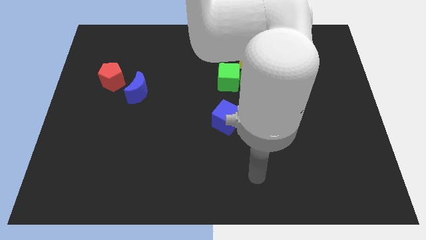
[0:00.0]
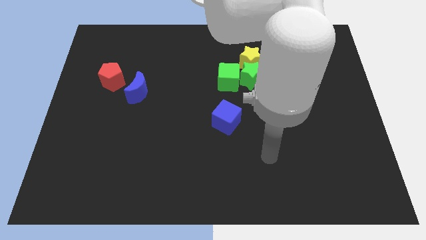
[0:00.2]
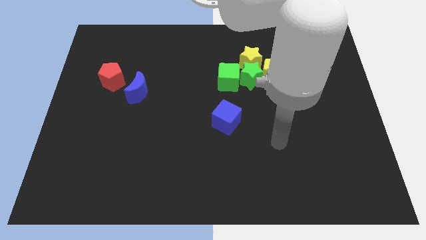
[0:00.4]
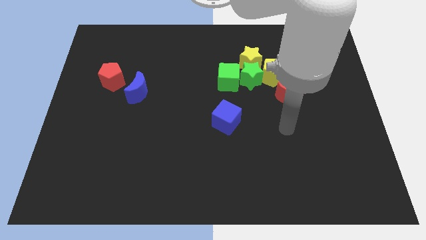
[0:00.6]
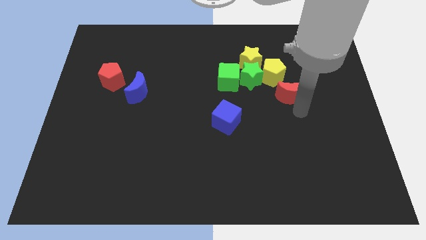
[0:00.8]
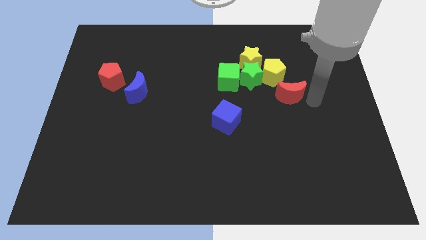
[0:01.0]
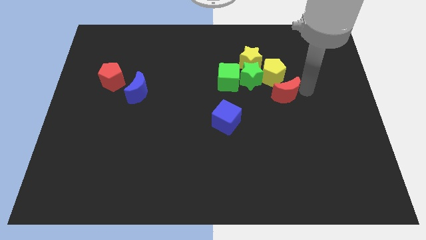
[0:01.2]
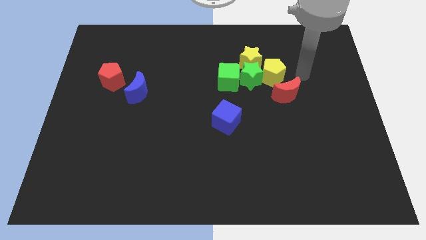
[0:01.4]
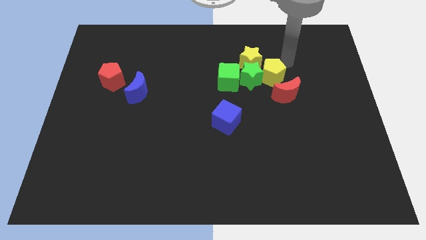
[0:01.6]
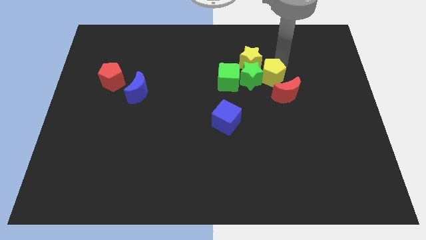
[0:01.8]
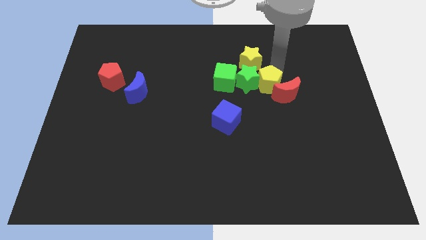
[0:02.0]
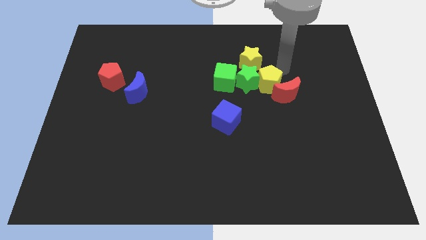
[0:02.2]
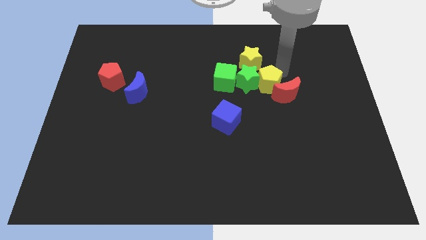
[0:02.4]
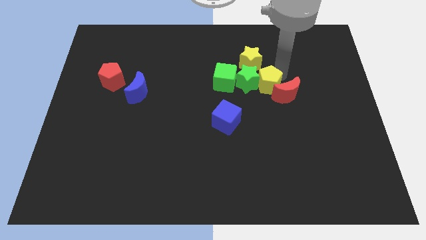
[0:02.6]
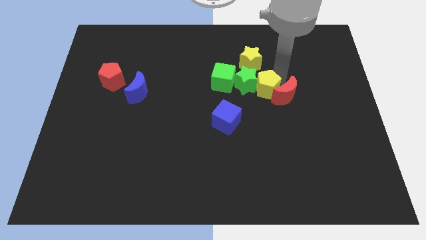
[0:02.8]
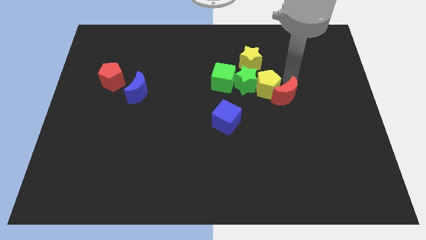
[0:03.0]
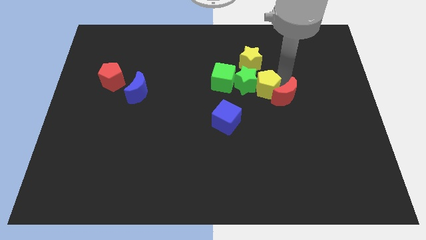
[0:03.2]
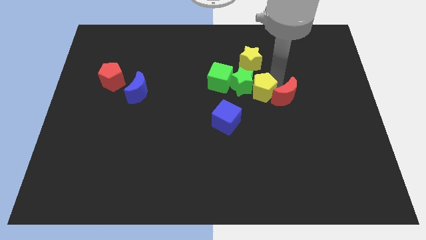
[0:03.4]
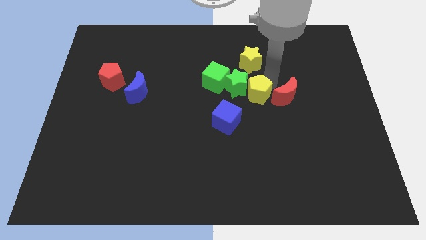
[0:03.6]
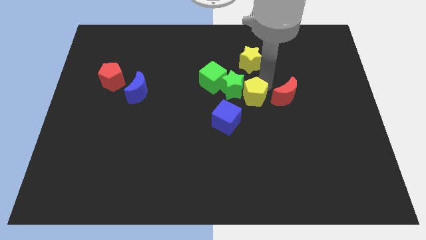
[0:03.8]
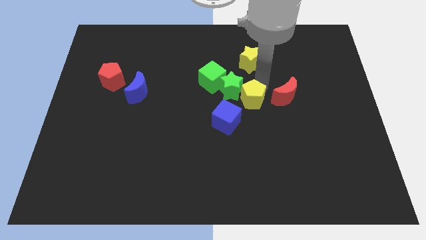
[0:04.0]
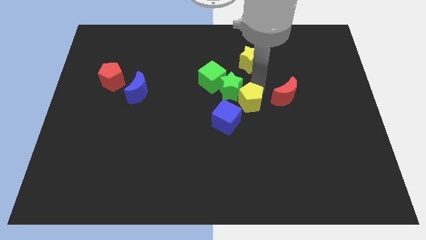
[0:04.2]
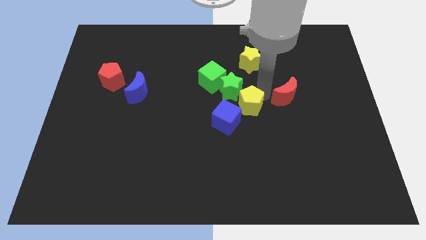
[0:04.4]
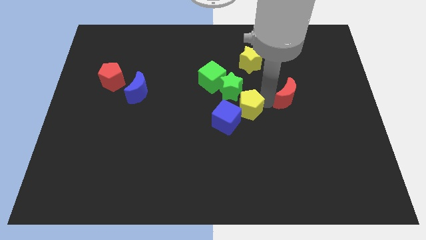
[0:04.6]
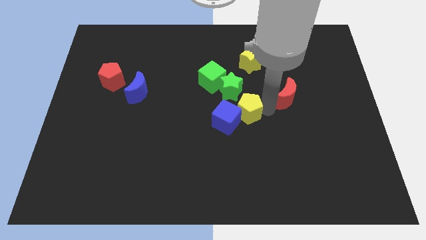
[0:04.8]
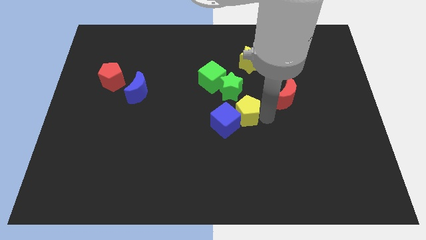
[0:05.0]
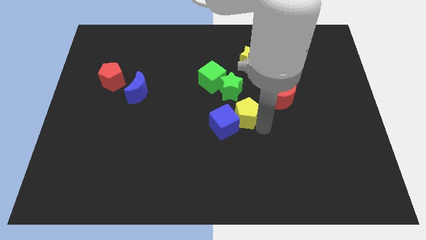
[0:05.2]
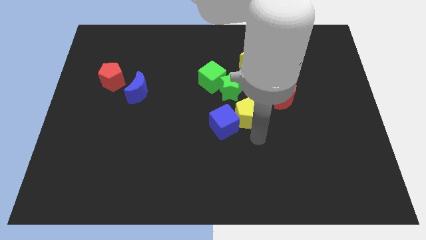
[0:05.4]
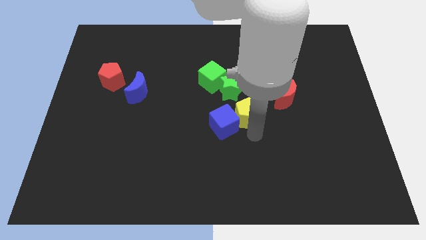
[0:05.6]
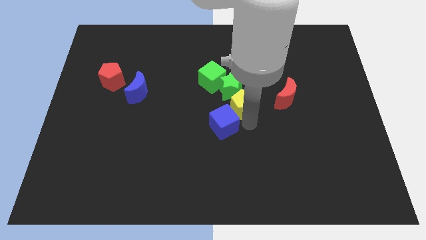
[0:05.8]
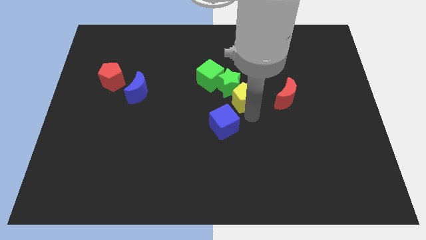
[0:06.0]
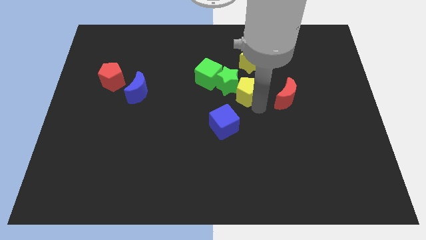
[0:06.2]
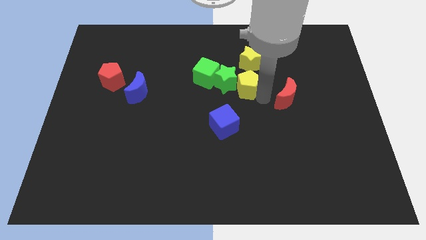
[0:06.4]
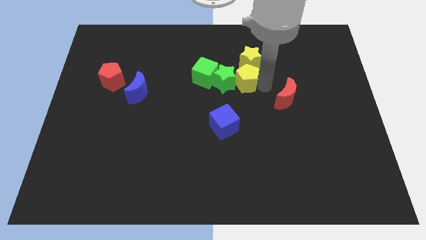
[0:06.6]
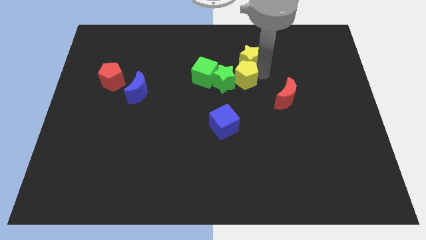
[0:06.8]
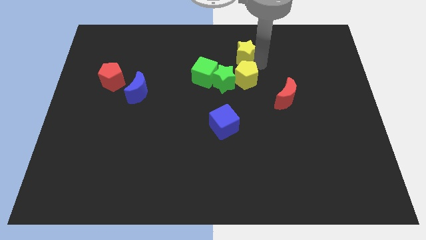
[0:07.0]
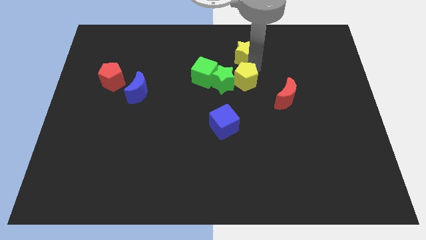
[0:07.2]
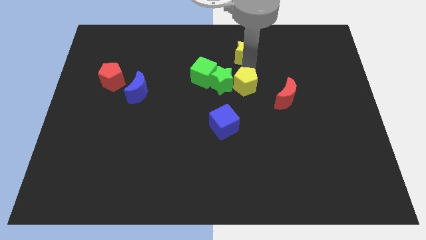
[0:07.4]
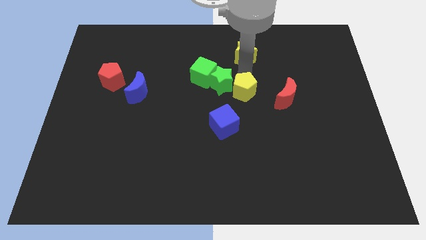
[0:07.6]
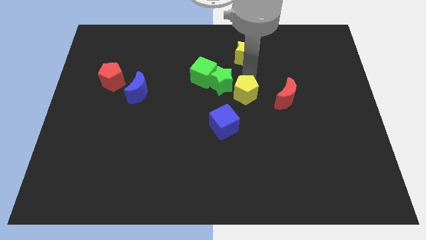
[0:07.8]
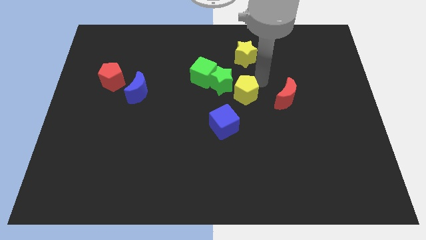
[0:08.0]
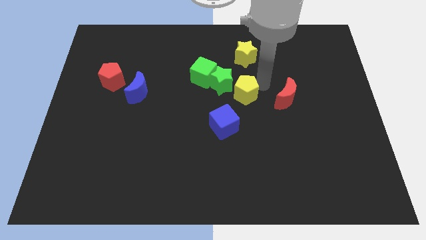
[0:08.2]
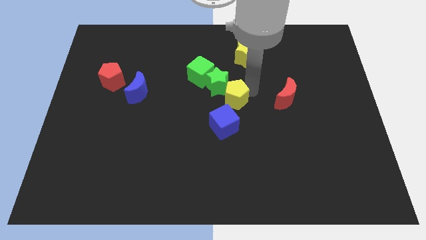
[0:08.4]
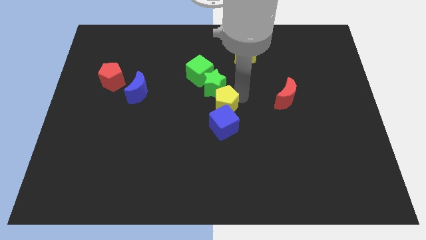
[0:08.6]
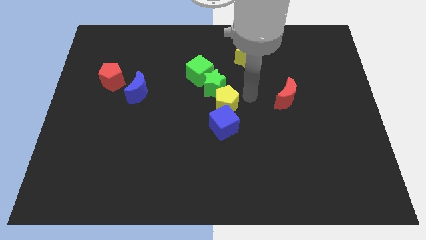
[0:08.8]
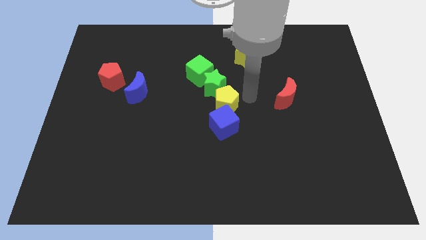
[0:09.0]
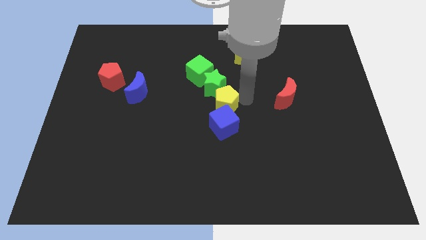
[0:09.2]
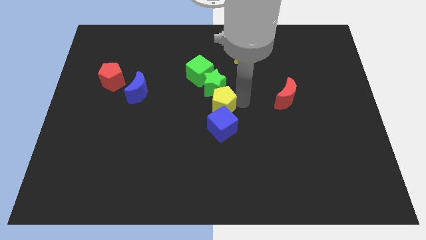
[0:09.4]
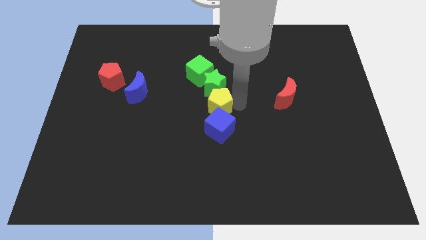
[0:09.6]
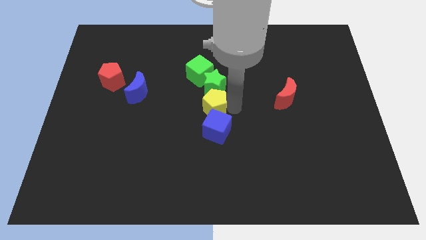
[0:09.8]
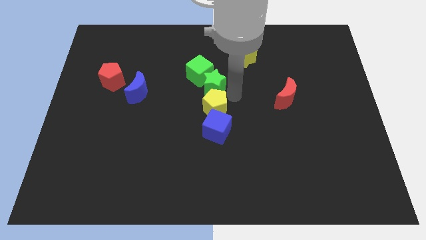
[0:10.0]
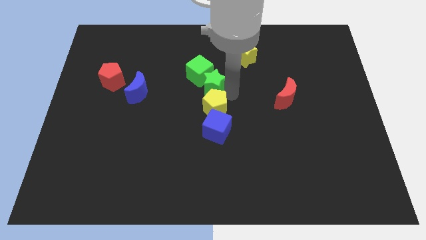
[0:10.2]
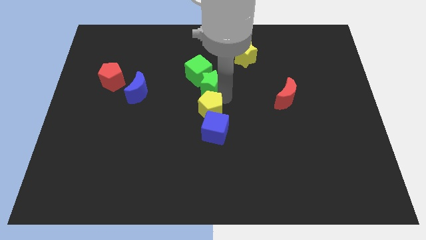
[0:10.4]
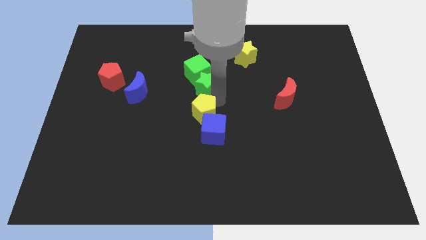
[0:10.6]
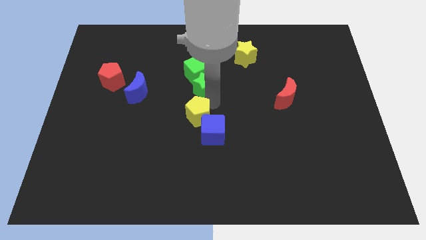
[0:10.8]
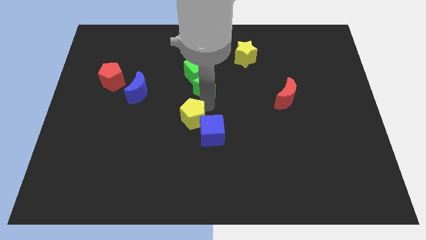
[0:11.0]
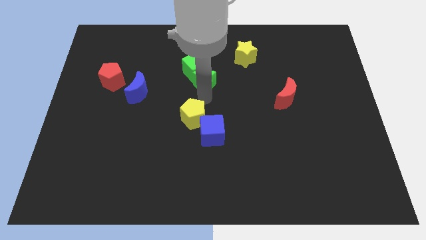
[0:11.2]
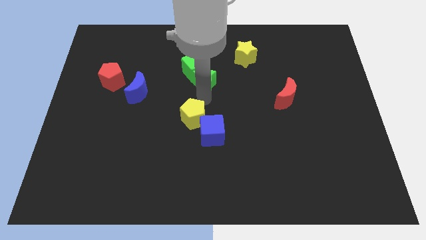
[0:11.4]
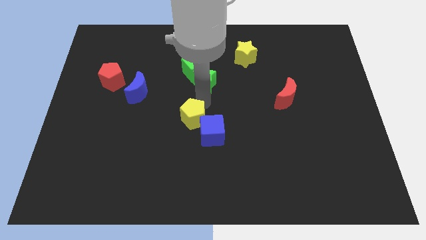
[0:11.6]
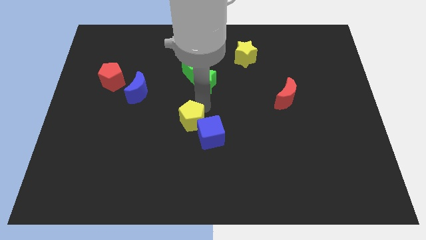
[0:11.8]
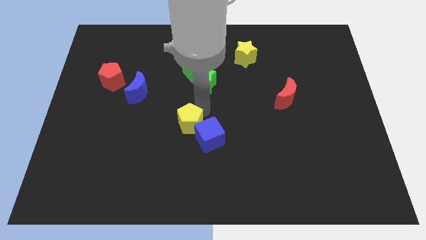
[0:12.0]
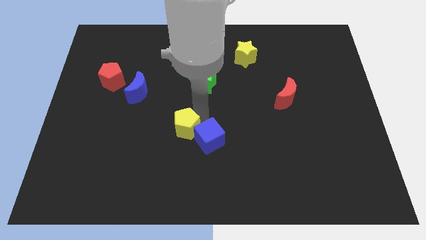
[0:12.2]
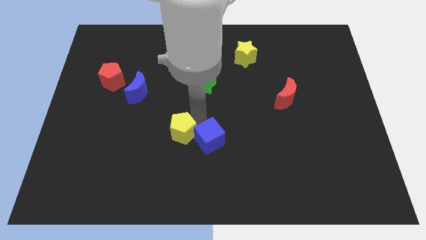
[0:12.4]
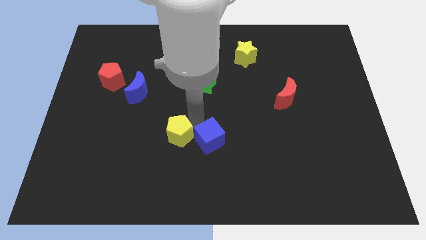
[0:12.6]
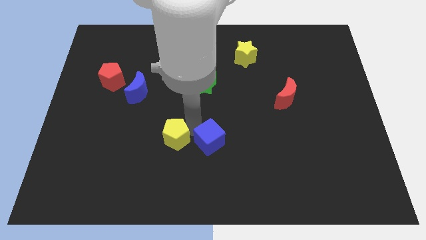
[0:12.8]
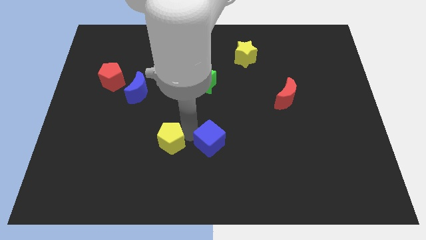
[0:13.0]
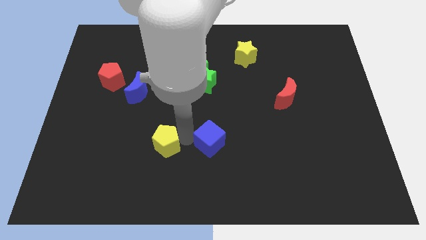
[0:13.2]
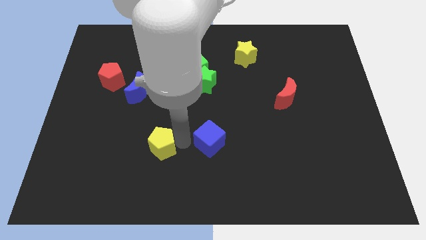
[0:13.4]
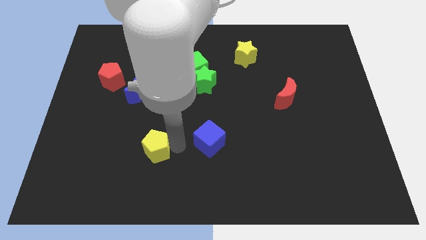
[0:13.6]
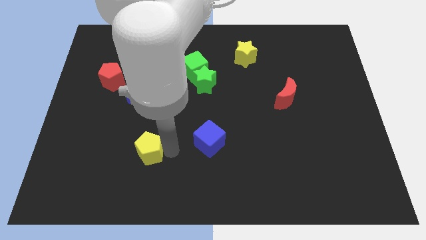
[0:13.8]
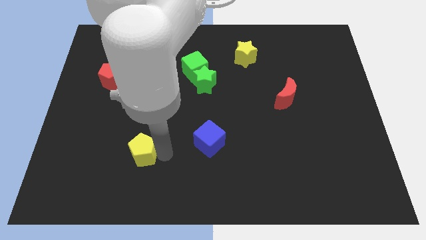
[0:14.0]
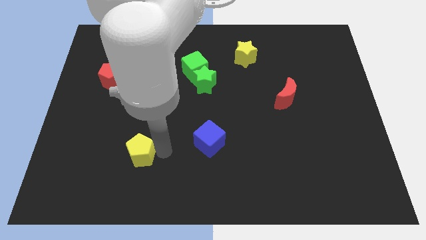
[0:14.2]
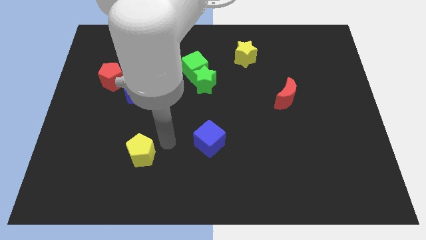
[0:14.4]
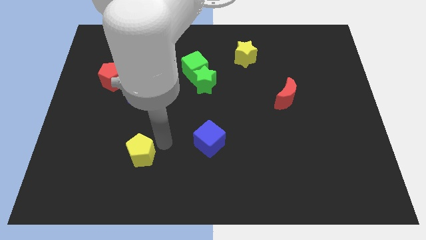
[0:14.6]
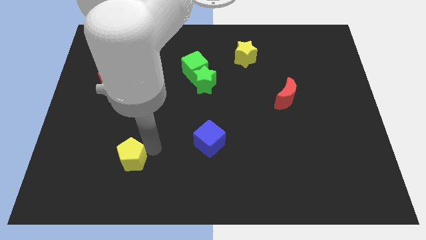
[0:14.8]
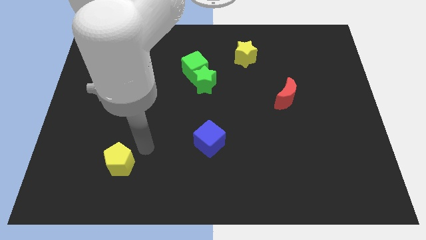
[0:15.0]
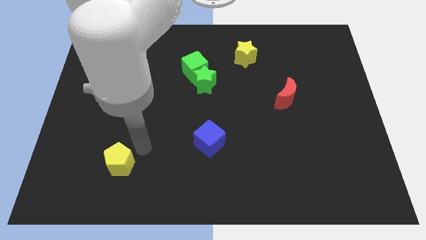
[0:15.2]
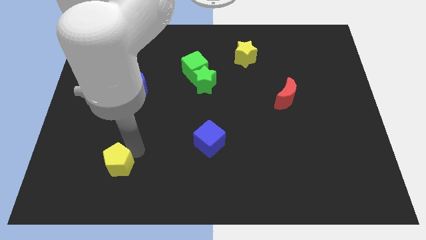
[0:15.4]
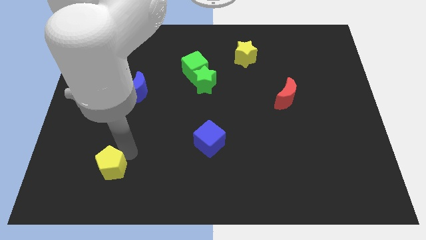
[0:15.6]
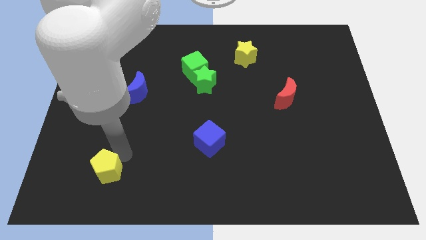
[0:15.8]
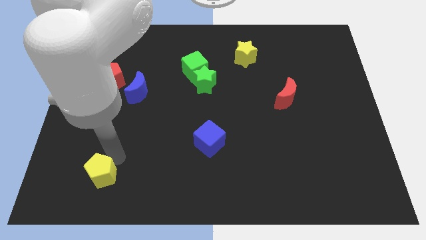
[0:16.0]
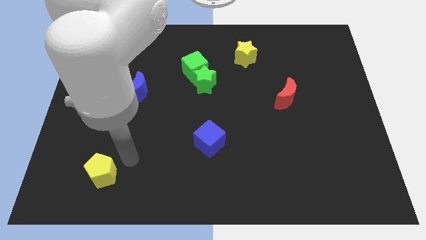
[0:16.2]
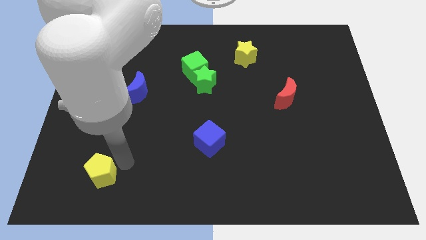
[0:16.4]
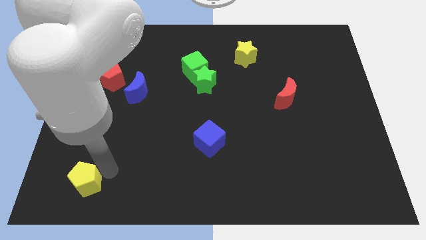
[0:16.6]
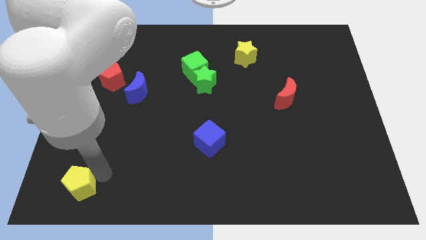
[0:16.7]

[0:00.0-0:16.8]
push the yellow pentagon to the bottom left corner
